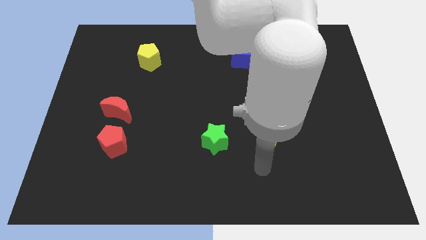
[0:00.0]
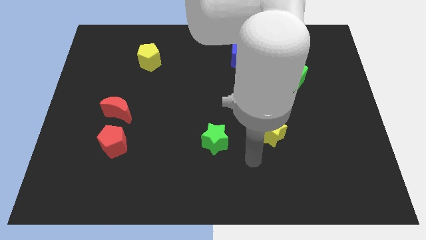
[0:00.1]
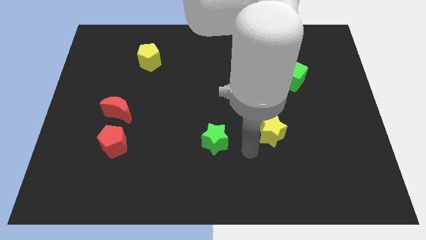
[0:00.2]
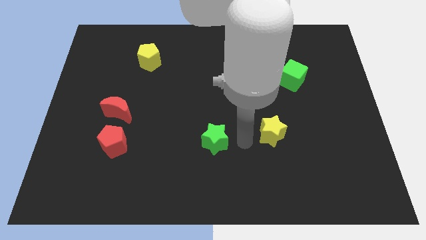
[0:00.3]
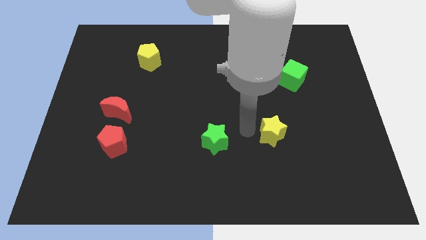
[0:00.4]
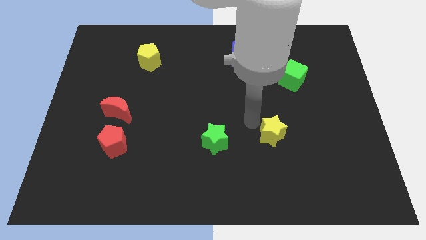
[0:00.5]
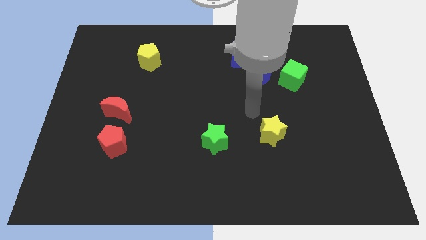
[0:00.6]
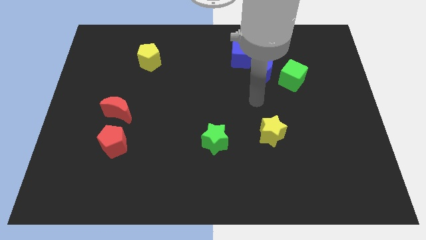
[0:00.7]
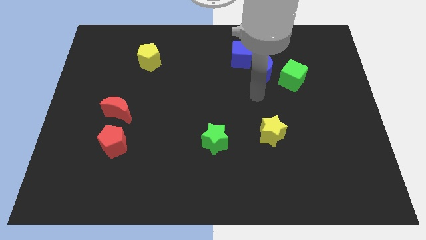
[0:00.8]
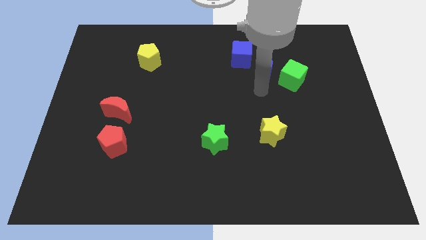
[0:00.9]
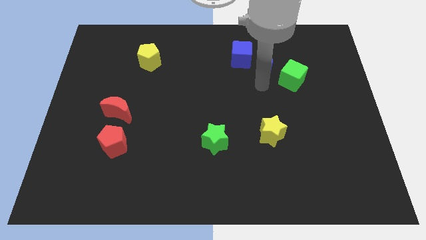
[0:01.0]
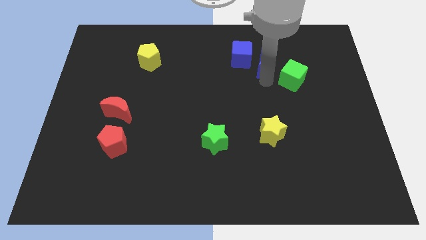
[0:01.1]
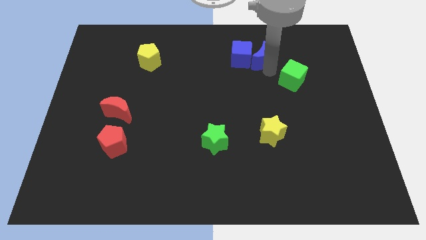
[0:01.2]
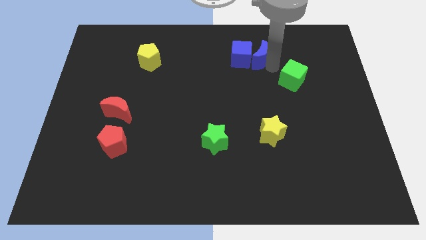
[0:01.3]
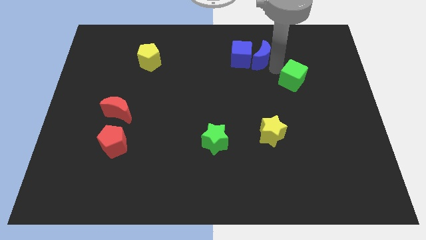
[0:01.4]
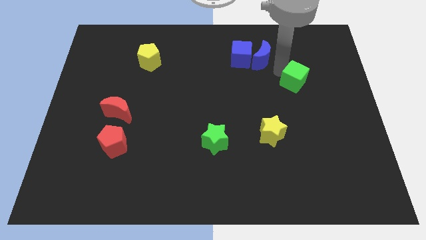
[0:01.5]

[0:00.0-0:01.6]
separate the green cube from the blue moon

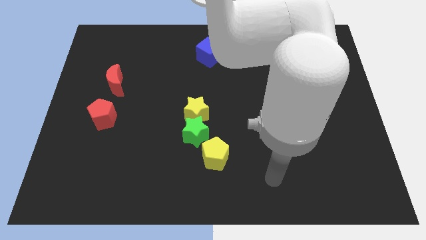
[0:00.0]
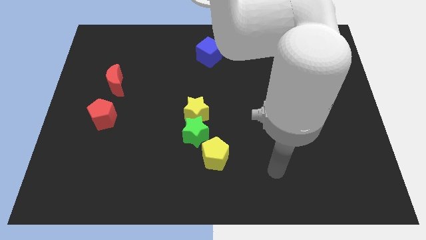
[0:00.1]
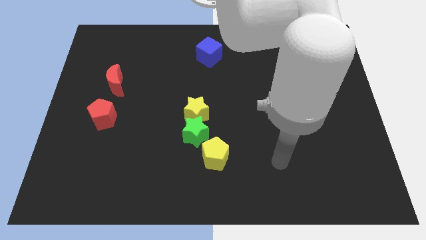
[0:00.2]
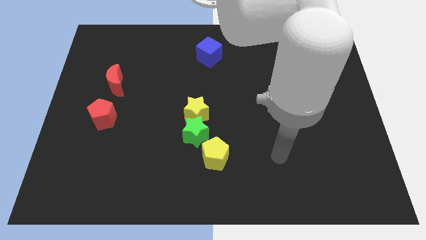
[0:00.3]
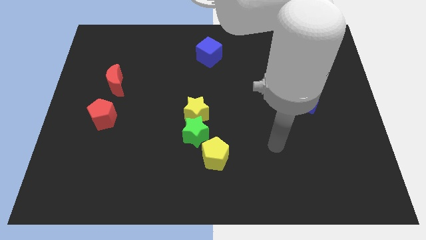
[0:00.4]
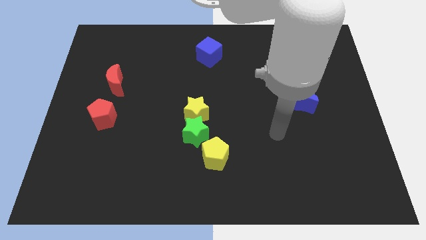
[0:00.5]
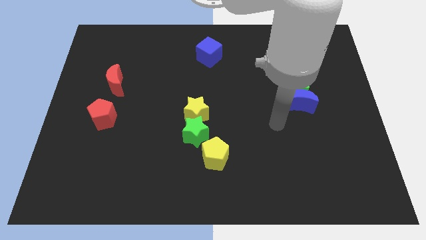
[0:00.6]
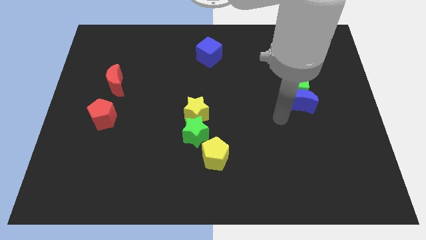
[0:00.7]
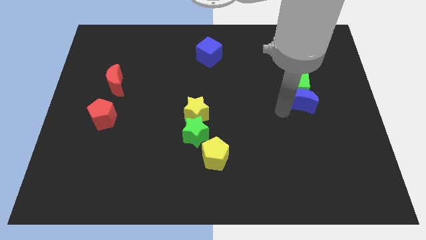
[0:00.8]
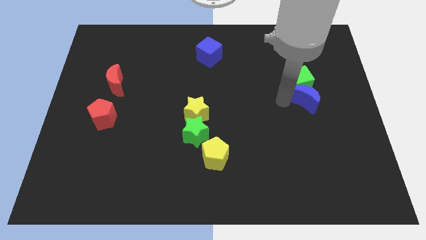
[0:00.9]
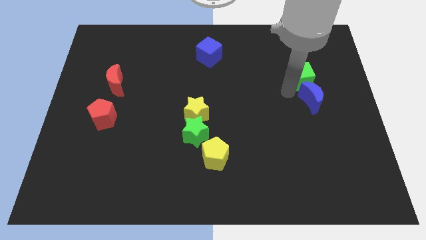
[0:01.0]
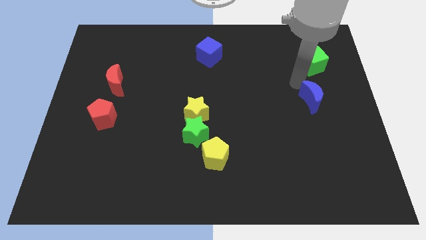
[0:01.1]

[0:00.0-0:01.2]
move the blue moon away from the green cube

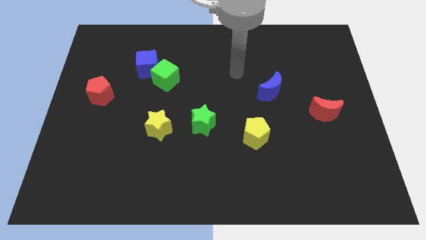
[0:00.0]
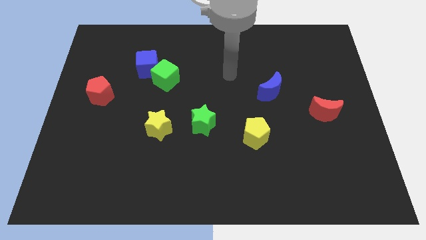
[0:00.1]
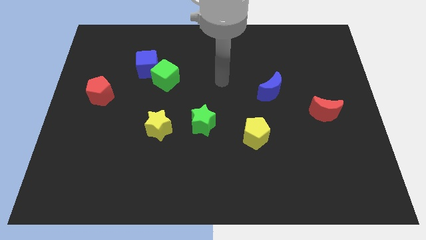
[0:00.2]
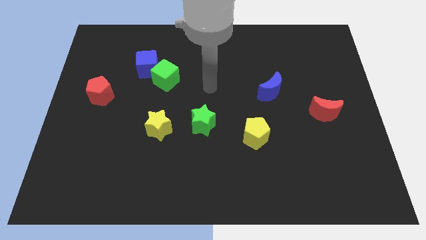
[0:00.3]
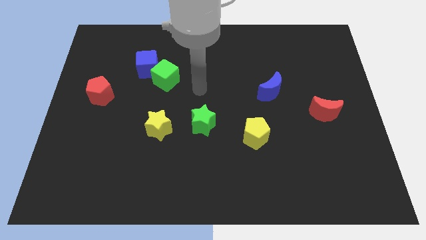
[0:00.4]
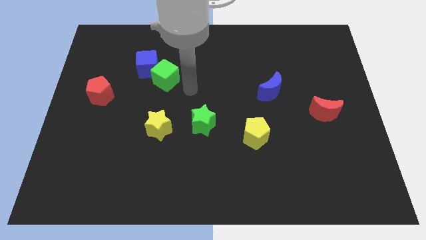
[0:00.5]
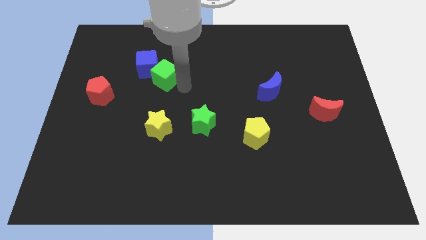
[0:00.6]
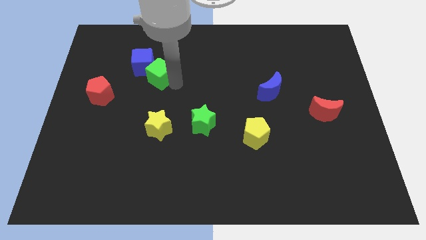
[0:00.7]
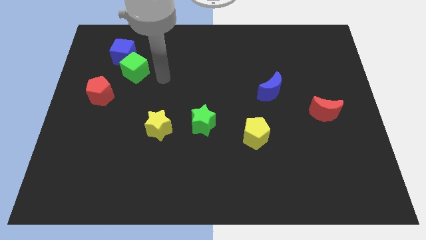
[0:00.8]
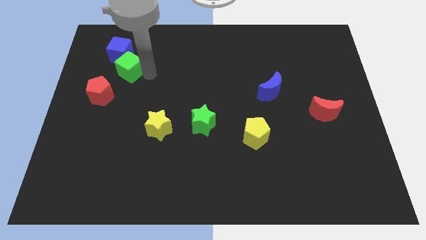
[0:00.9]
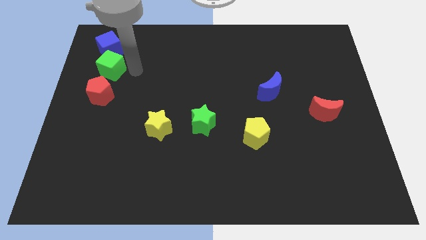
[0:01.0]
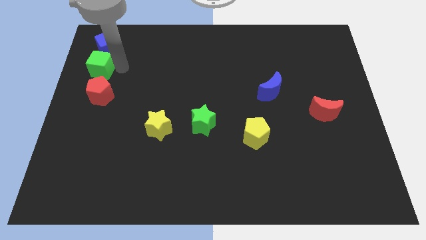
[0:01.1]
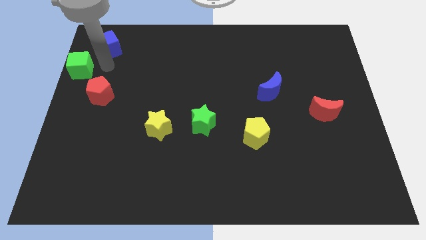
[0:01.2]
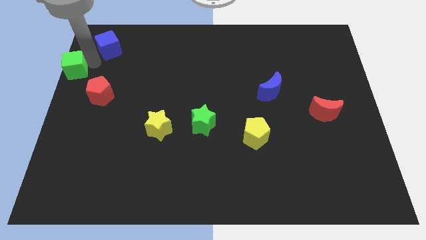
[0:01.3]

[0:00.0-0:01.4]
separate the blue cube from the green cube

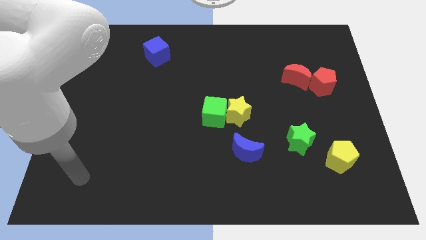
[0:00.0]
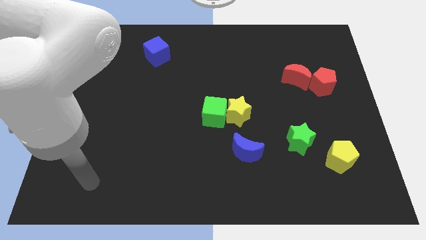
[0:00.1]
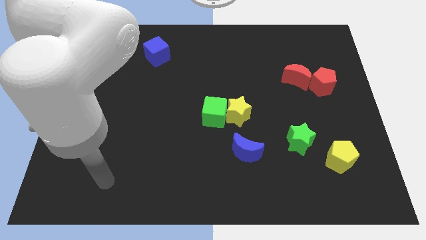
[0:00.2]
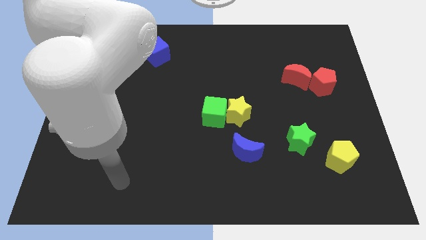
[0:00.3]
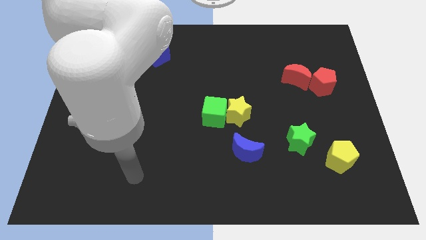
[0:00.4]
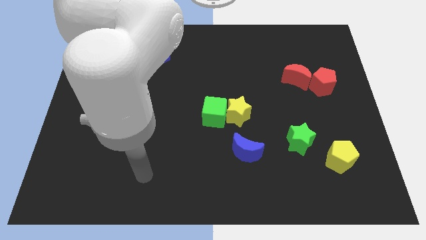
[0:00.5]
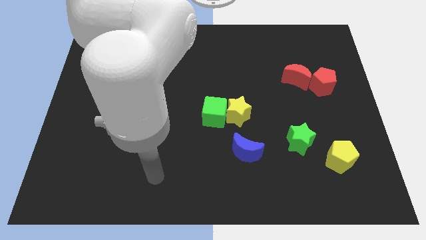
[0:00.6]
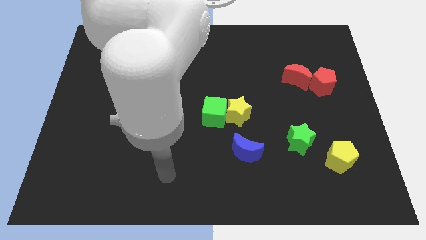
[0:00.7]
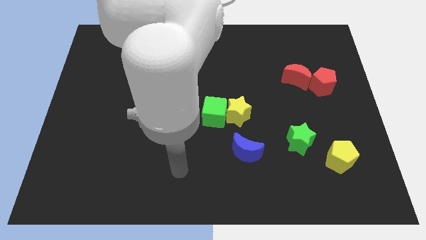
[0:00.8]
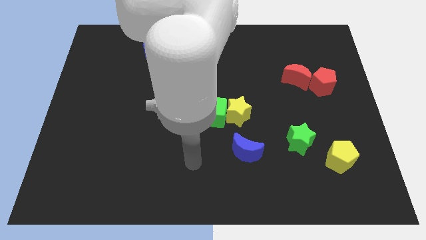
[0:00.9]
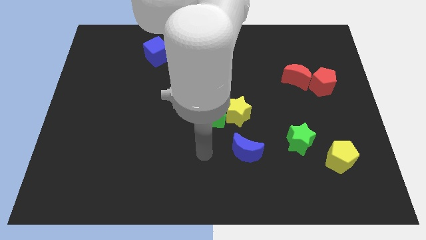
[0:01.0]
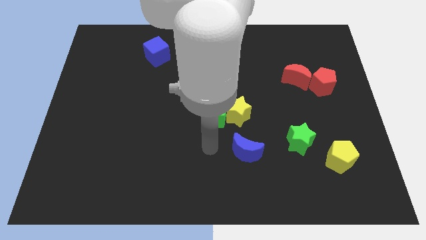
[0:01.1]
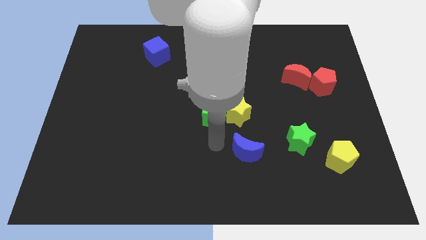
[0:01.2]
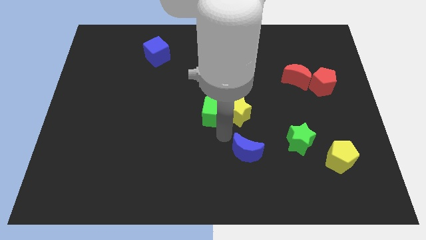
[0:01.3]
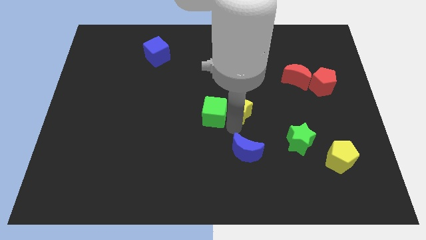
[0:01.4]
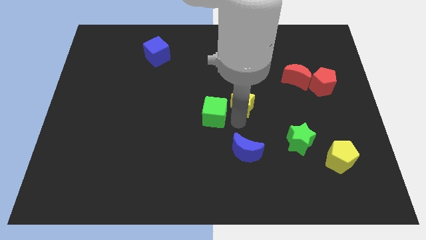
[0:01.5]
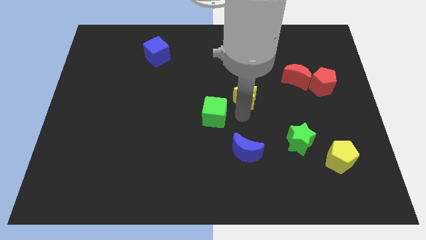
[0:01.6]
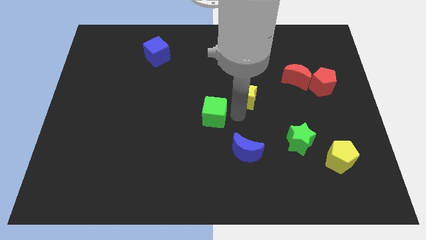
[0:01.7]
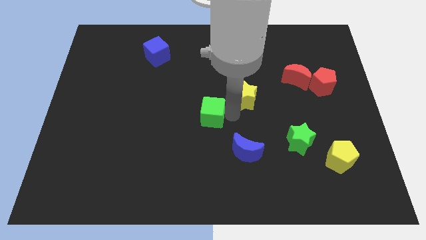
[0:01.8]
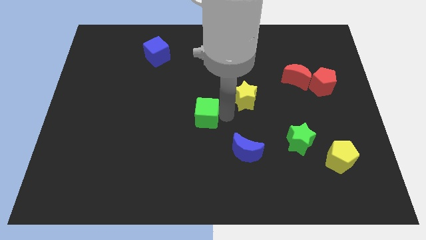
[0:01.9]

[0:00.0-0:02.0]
separate the green cube from the yellow star

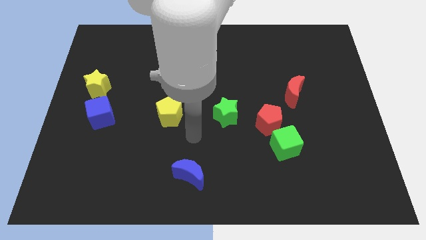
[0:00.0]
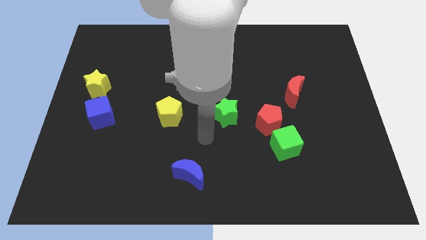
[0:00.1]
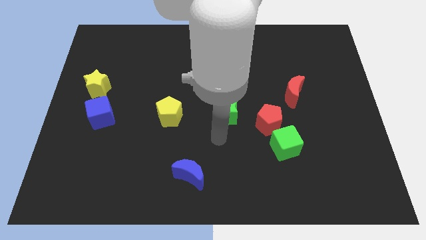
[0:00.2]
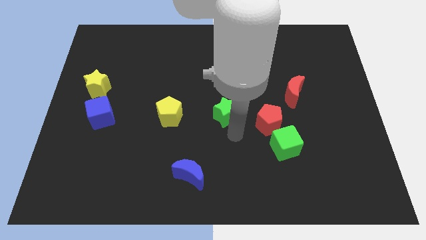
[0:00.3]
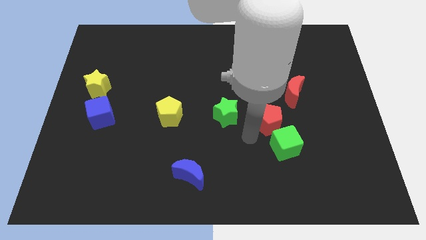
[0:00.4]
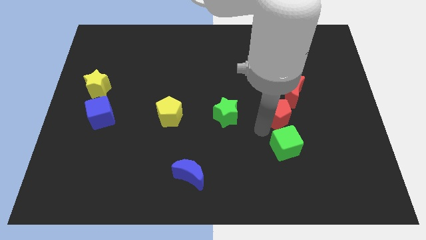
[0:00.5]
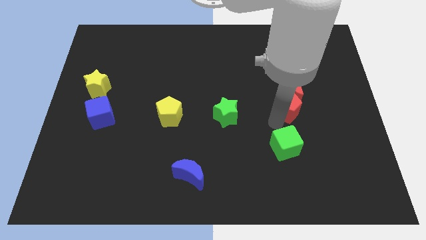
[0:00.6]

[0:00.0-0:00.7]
move the green cube away from the red pentagon

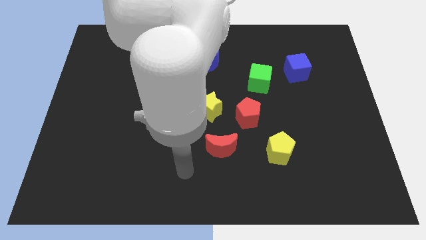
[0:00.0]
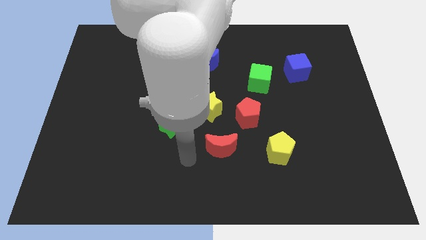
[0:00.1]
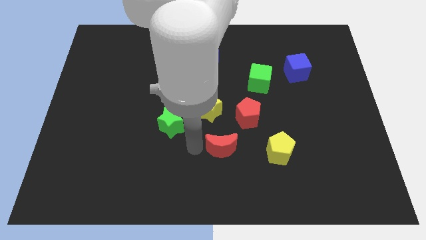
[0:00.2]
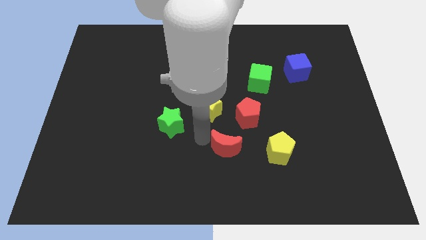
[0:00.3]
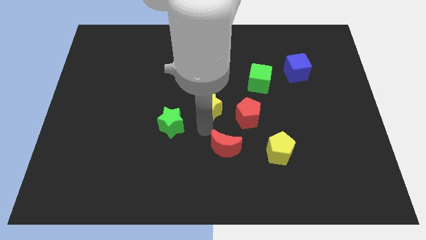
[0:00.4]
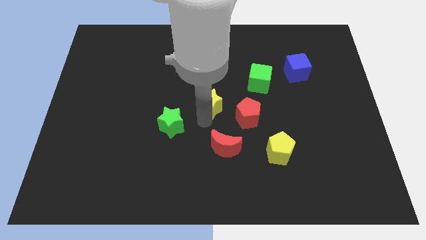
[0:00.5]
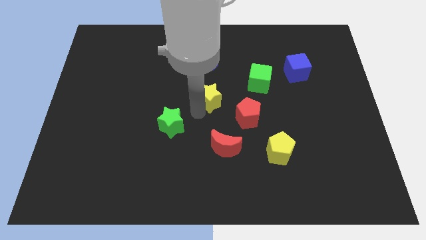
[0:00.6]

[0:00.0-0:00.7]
separate the green star from the yellow star

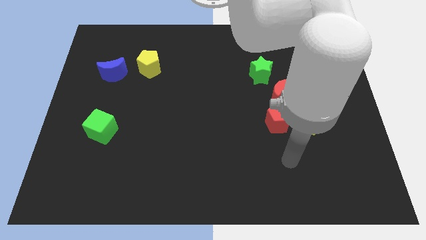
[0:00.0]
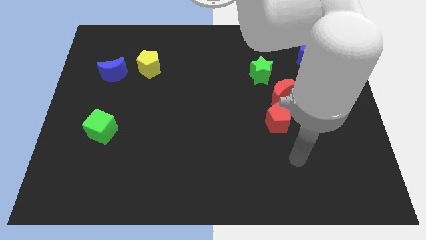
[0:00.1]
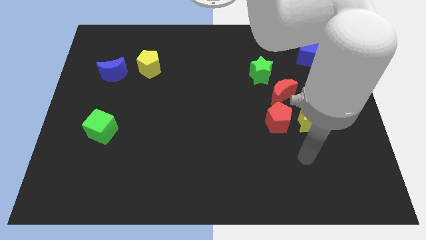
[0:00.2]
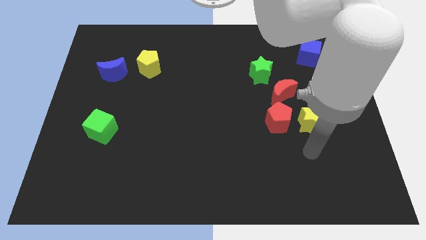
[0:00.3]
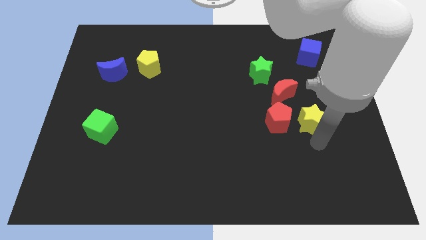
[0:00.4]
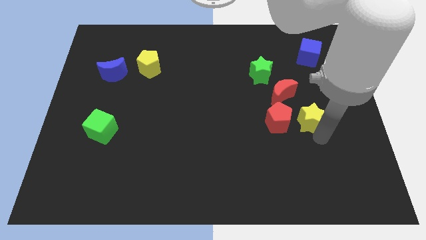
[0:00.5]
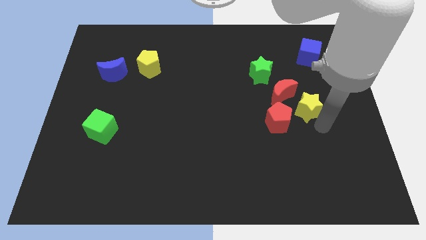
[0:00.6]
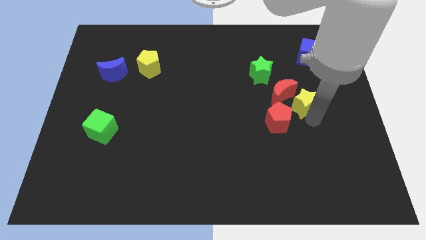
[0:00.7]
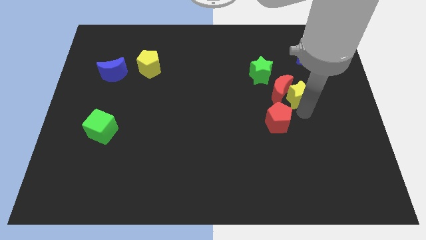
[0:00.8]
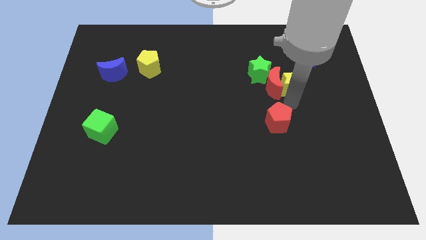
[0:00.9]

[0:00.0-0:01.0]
separate the red pentagon from the yellow star and red moon

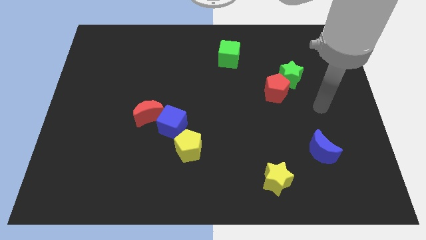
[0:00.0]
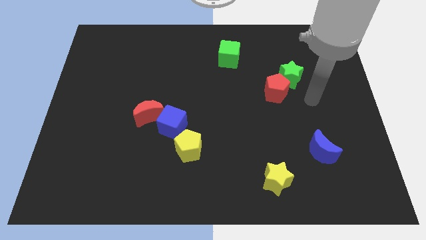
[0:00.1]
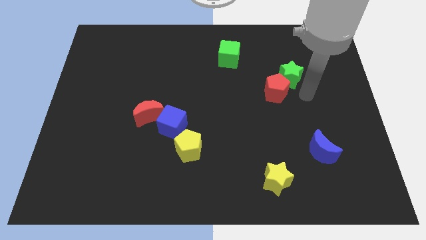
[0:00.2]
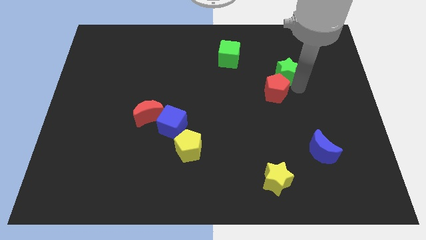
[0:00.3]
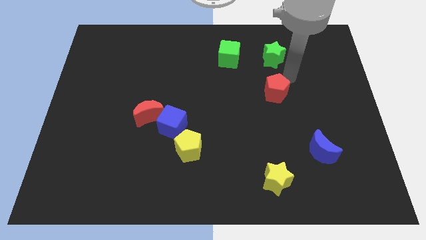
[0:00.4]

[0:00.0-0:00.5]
pull the red pentagon apart from the green star

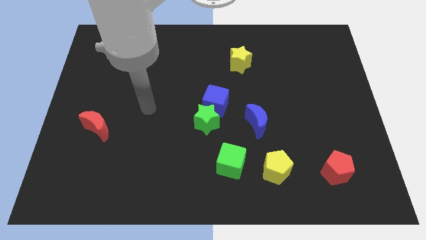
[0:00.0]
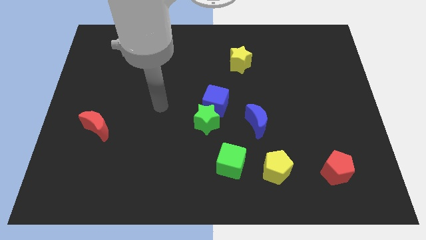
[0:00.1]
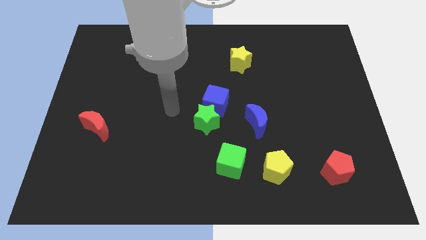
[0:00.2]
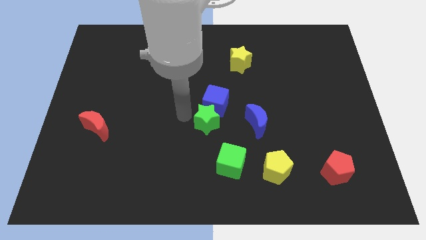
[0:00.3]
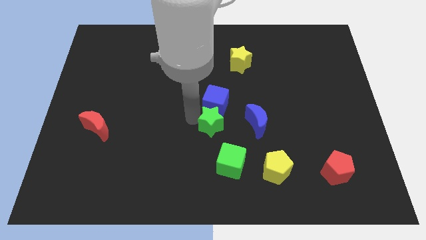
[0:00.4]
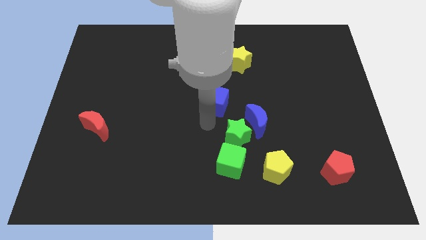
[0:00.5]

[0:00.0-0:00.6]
pull the blue cube apart from the green star
